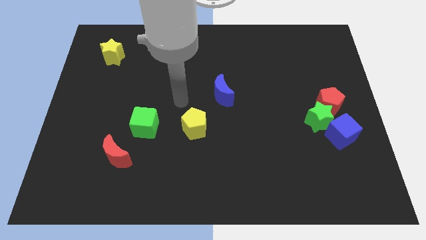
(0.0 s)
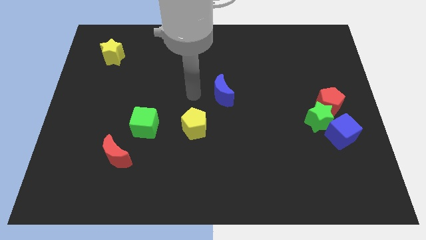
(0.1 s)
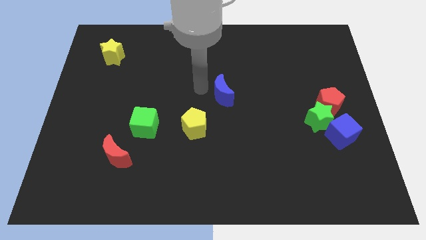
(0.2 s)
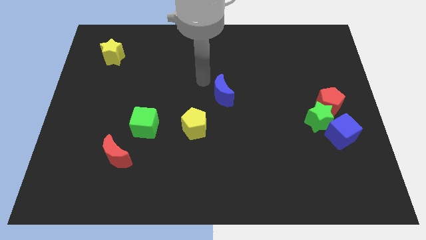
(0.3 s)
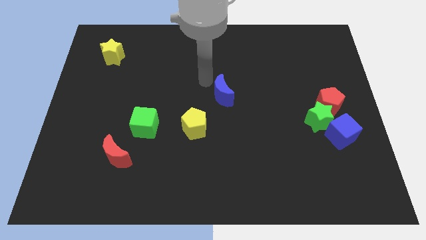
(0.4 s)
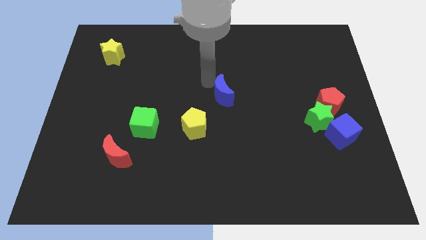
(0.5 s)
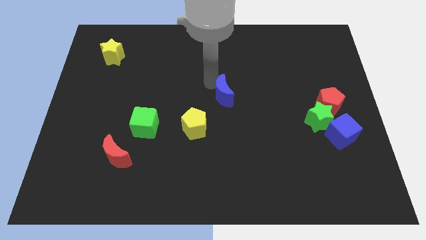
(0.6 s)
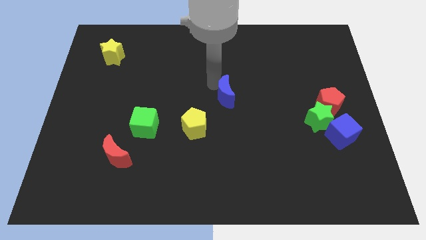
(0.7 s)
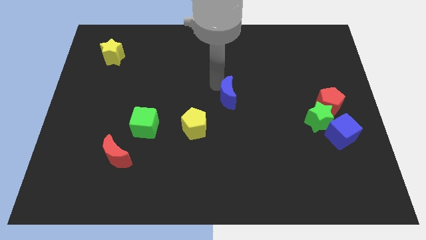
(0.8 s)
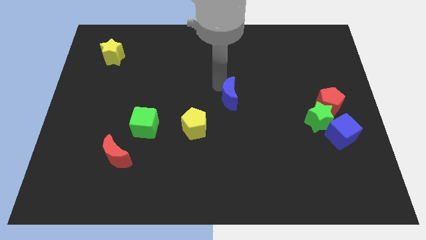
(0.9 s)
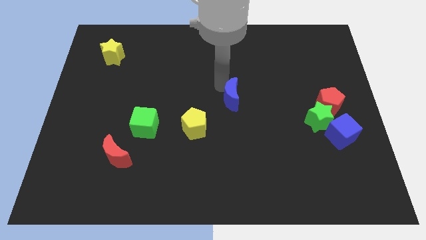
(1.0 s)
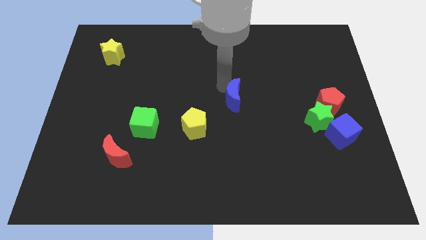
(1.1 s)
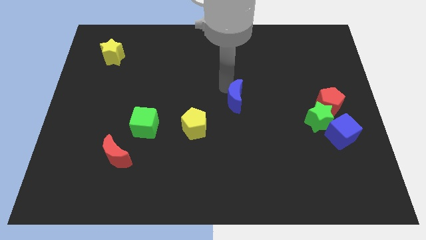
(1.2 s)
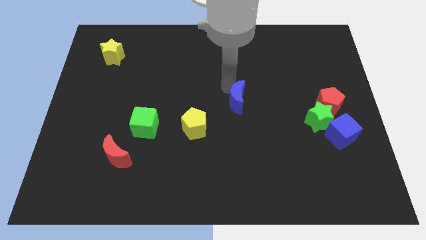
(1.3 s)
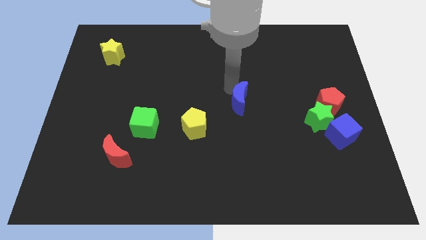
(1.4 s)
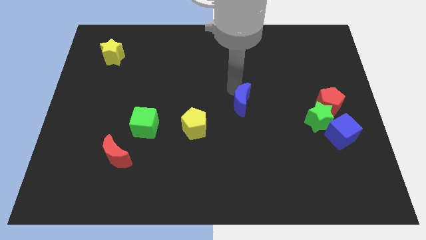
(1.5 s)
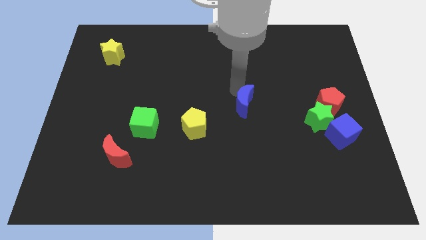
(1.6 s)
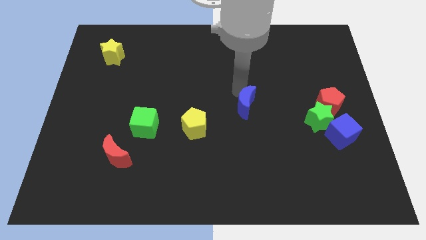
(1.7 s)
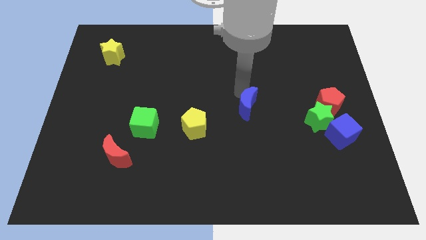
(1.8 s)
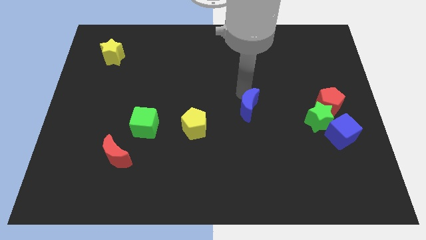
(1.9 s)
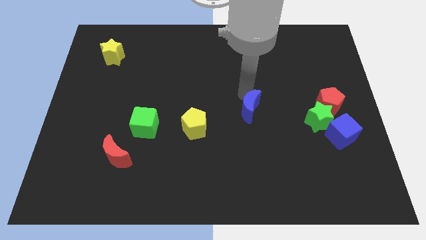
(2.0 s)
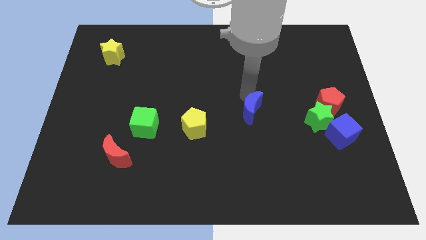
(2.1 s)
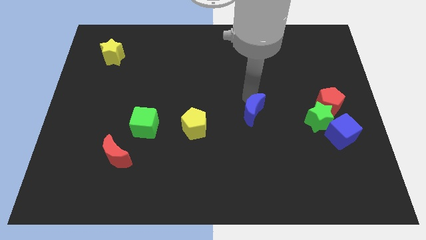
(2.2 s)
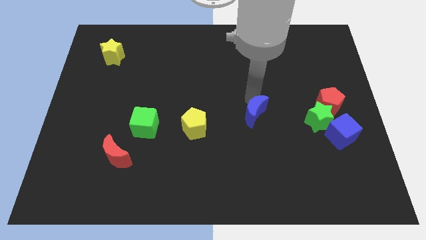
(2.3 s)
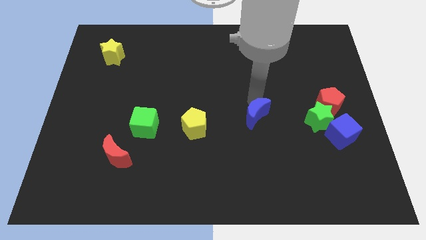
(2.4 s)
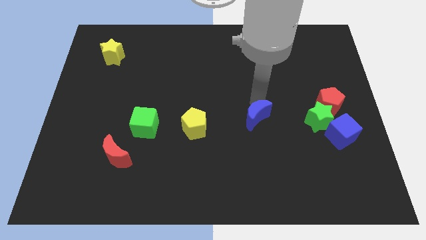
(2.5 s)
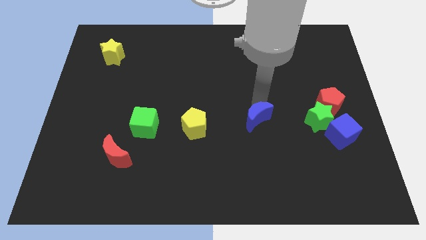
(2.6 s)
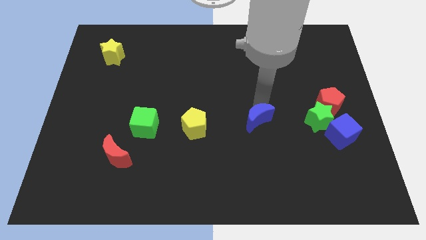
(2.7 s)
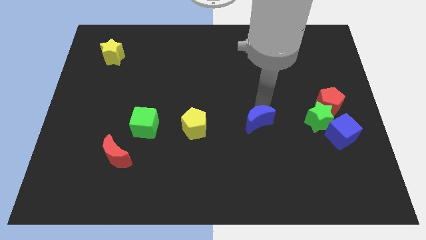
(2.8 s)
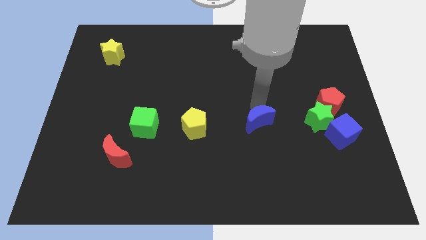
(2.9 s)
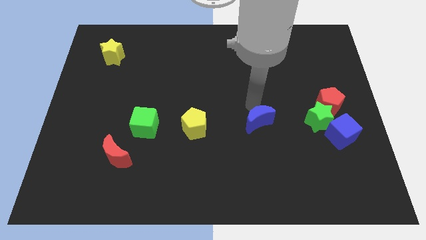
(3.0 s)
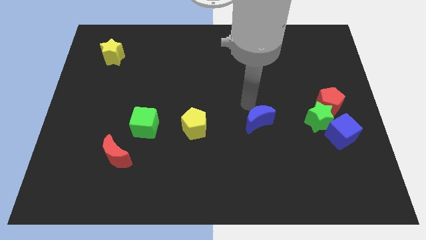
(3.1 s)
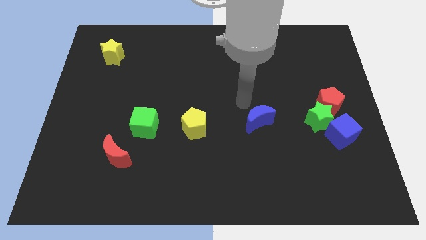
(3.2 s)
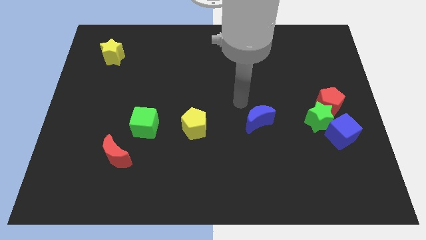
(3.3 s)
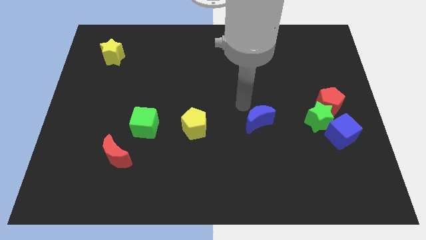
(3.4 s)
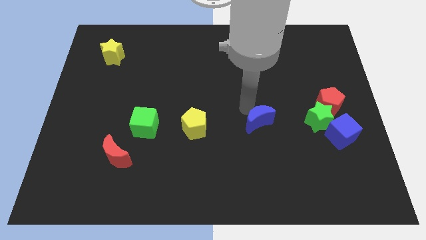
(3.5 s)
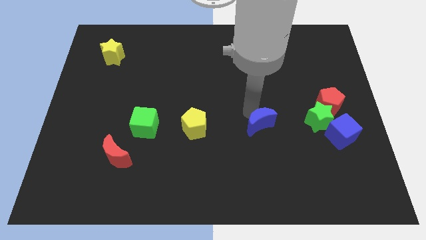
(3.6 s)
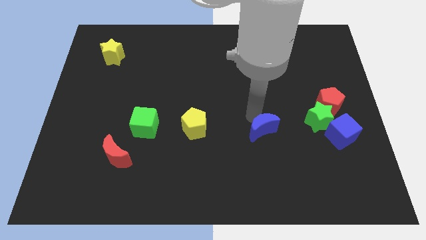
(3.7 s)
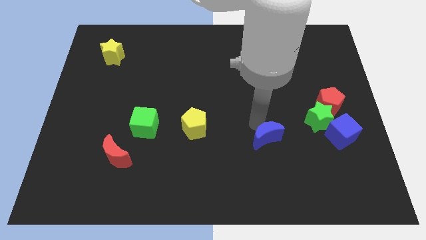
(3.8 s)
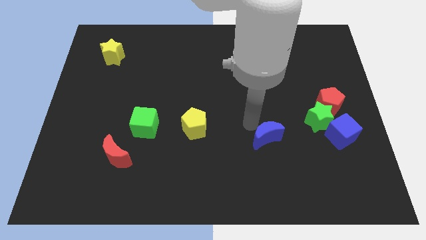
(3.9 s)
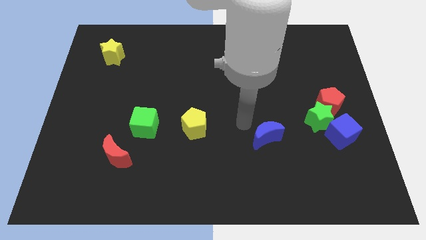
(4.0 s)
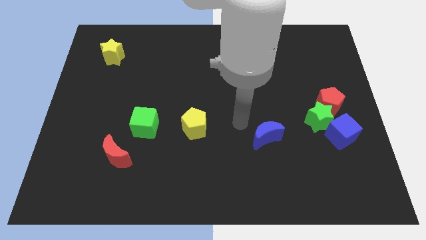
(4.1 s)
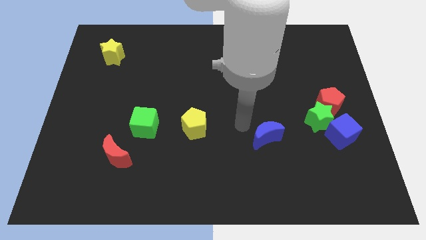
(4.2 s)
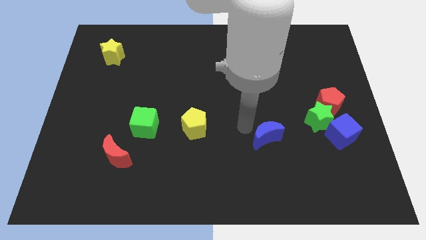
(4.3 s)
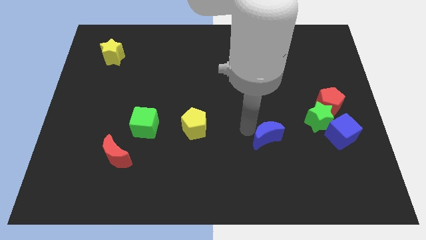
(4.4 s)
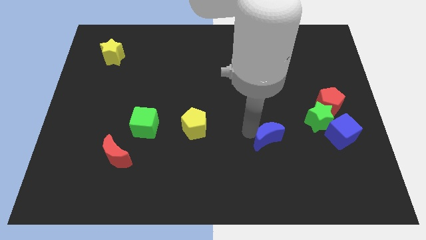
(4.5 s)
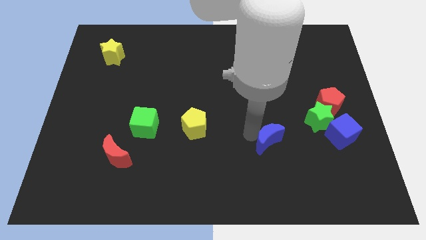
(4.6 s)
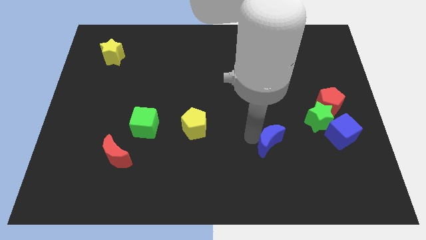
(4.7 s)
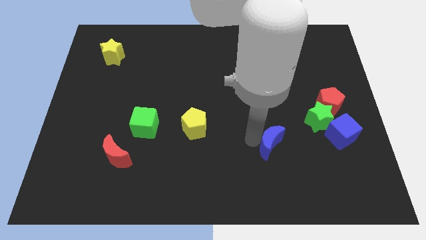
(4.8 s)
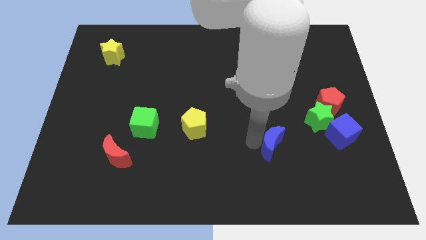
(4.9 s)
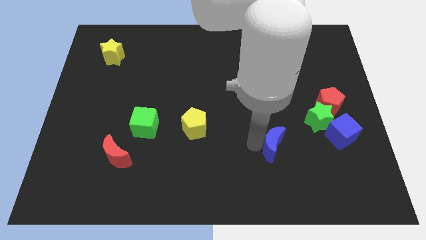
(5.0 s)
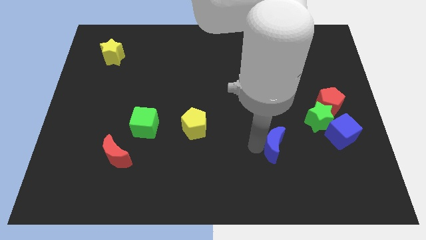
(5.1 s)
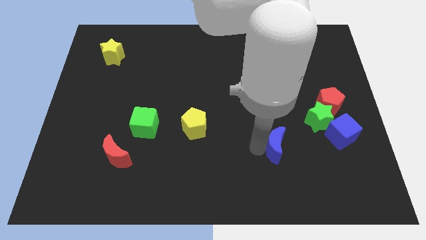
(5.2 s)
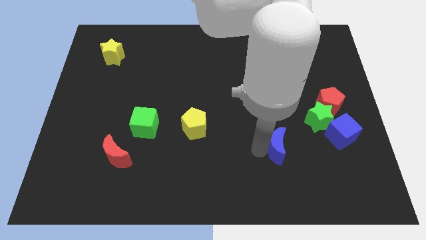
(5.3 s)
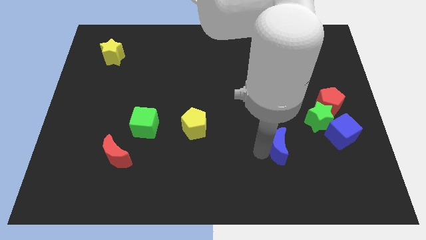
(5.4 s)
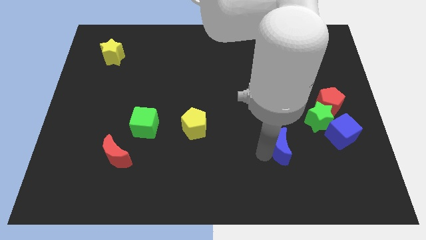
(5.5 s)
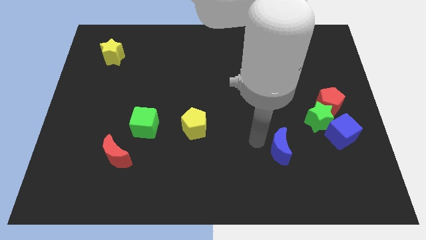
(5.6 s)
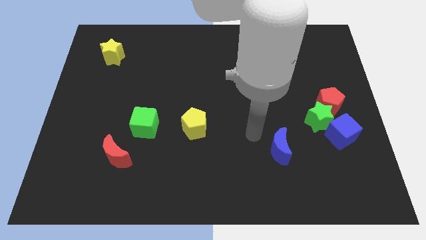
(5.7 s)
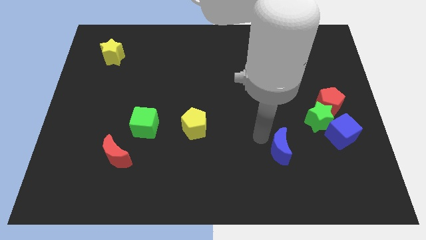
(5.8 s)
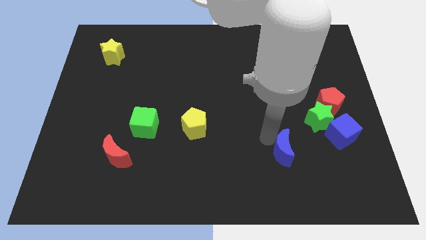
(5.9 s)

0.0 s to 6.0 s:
move the blue moon downwards and to the right diagonally

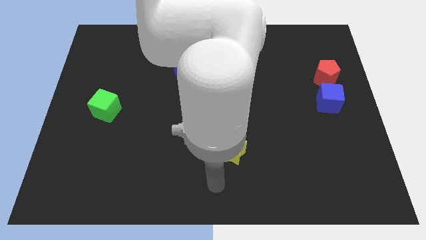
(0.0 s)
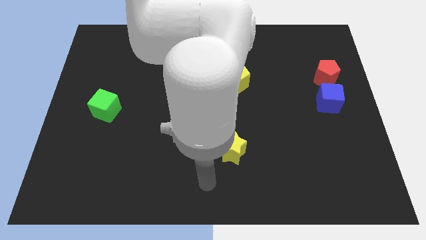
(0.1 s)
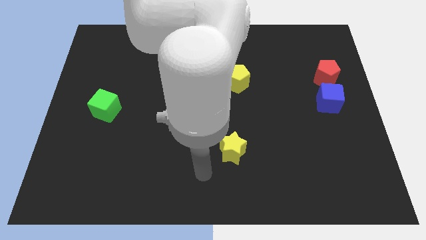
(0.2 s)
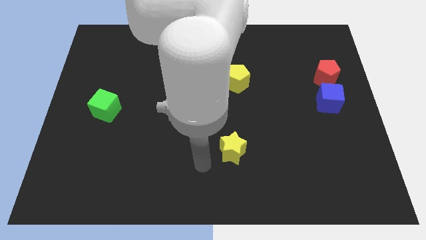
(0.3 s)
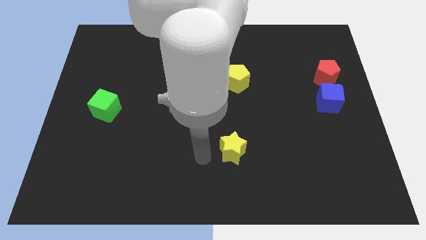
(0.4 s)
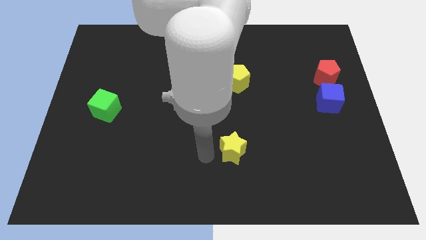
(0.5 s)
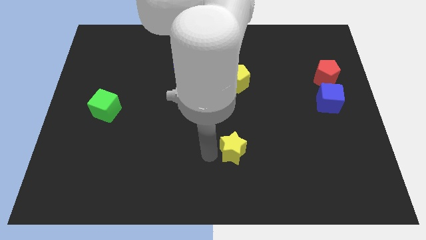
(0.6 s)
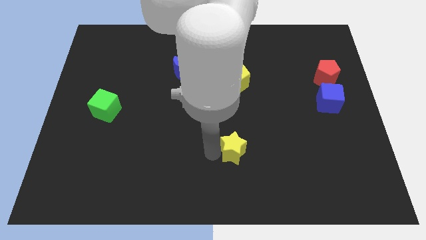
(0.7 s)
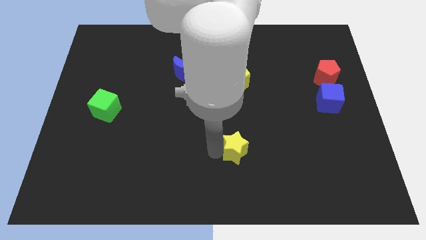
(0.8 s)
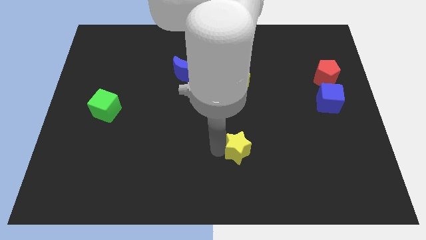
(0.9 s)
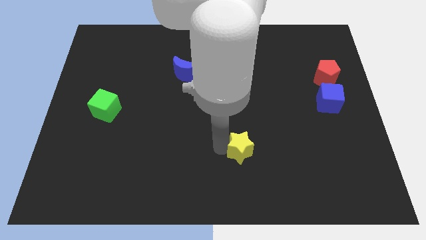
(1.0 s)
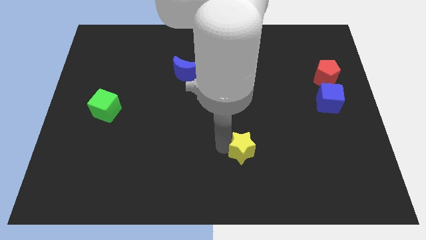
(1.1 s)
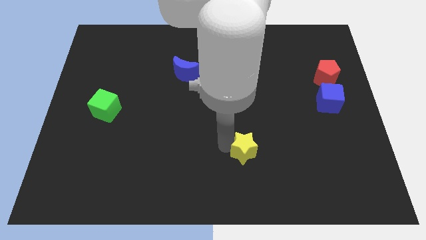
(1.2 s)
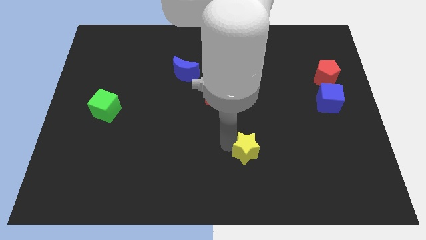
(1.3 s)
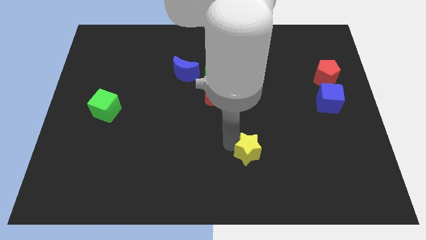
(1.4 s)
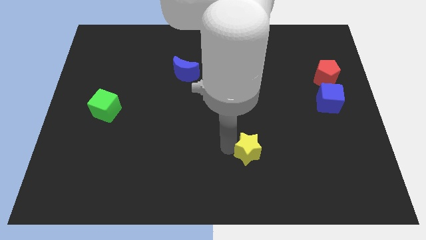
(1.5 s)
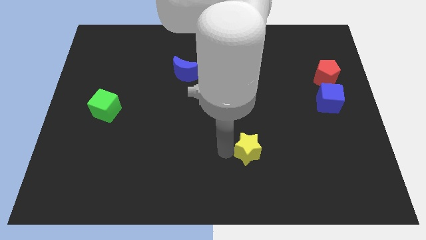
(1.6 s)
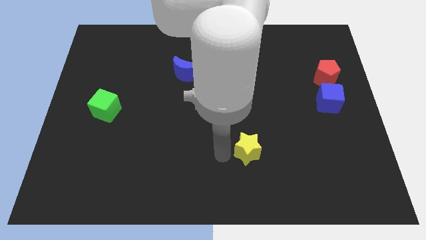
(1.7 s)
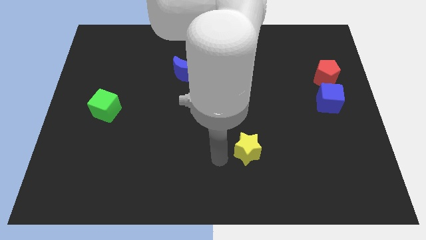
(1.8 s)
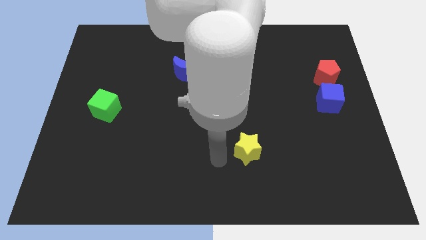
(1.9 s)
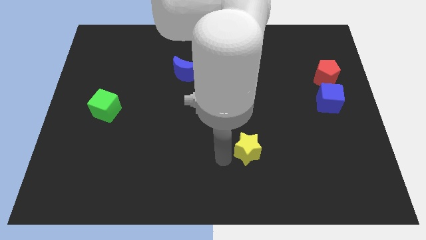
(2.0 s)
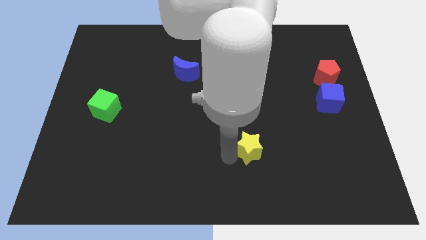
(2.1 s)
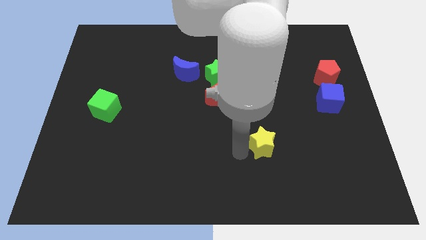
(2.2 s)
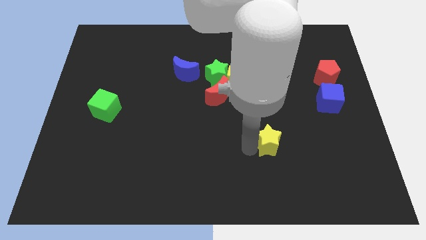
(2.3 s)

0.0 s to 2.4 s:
slightly slide the yellow star right
